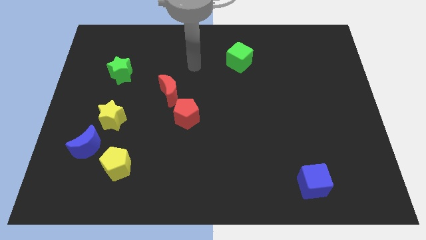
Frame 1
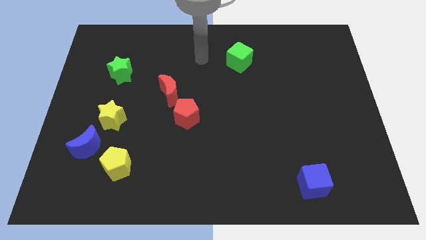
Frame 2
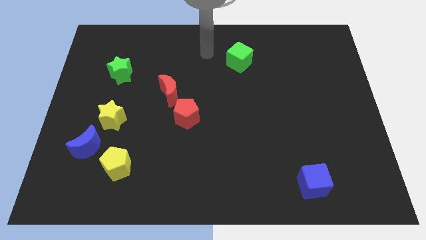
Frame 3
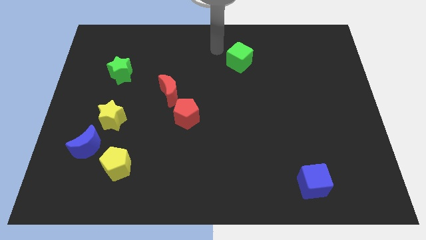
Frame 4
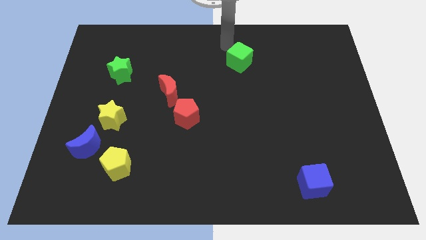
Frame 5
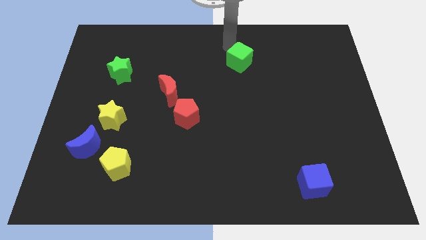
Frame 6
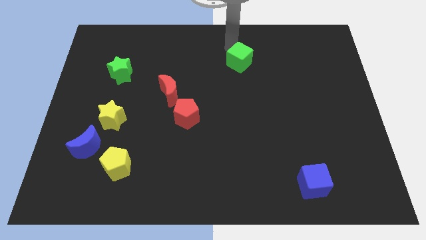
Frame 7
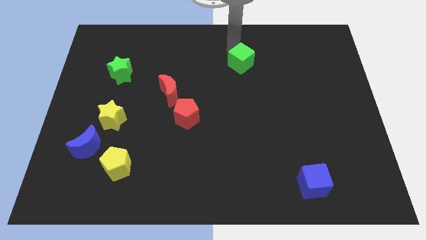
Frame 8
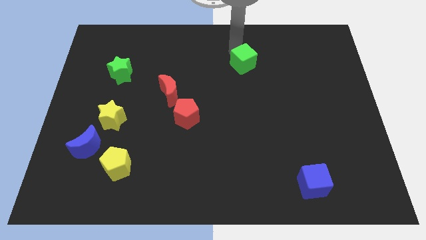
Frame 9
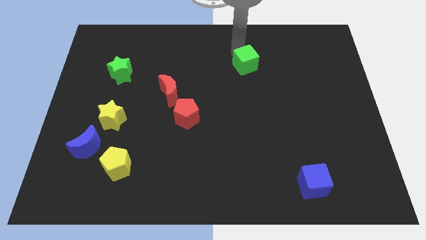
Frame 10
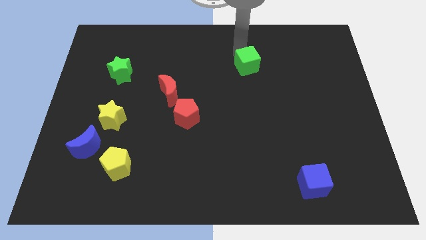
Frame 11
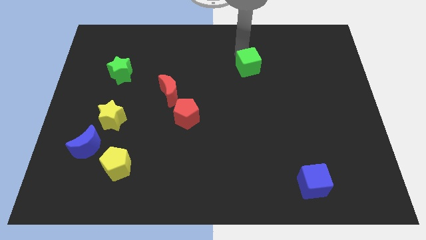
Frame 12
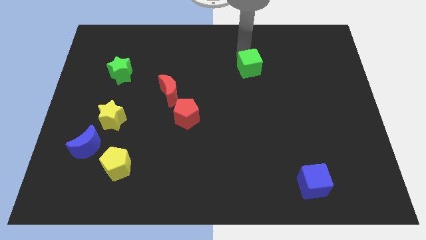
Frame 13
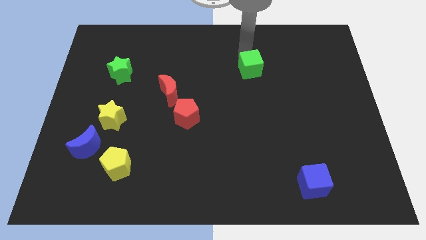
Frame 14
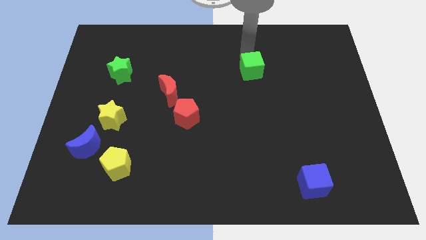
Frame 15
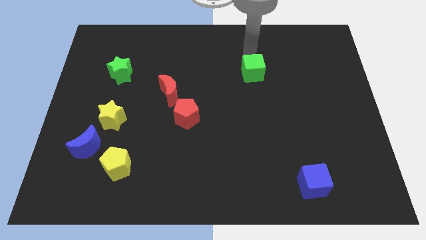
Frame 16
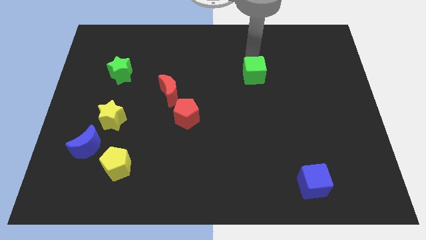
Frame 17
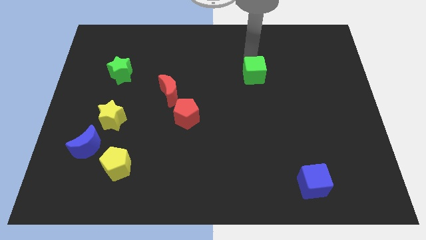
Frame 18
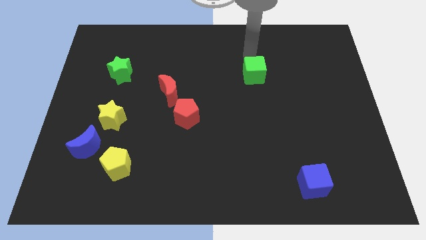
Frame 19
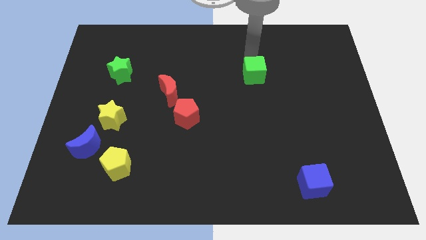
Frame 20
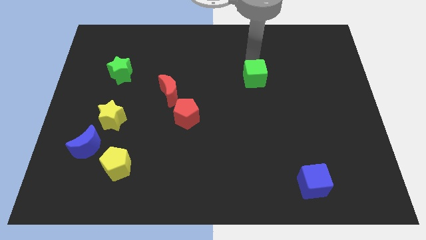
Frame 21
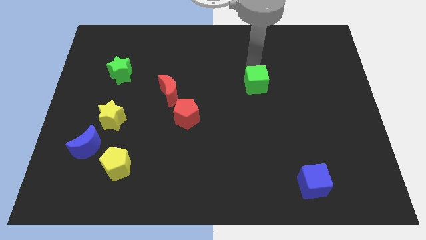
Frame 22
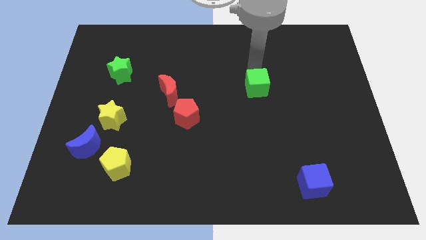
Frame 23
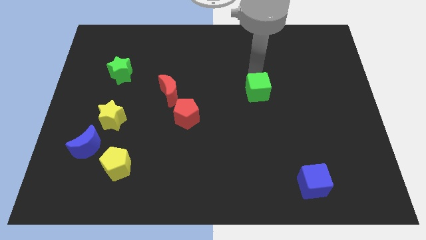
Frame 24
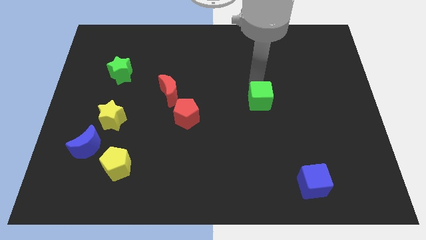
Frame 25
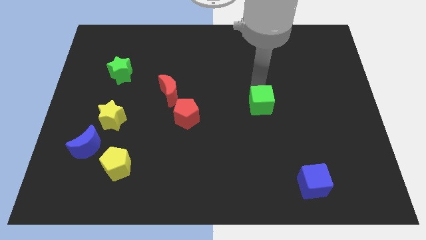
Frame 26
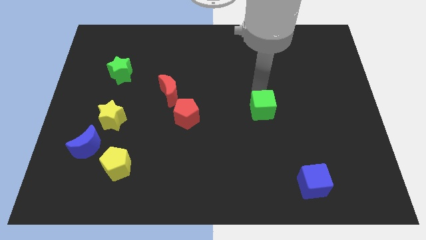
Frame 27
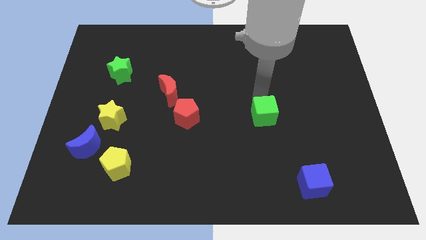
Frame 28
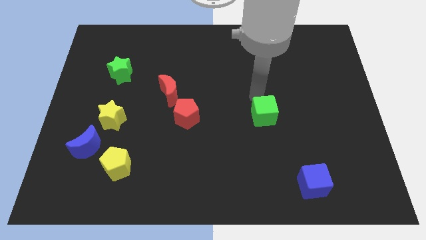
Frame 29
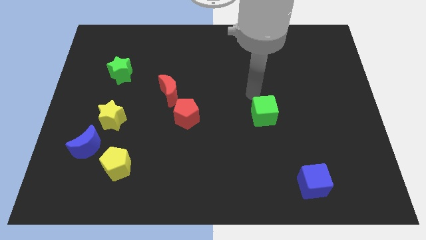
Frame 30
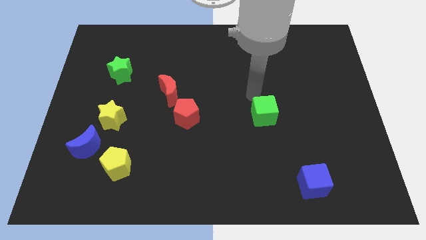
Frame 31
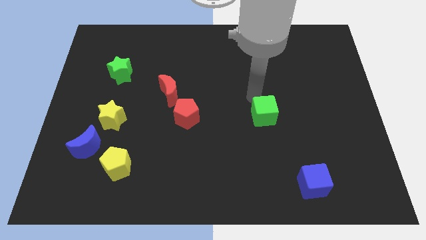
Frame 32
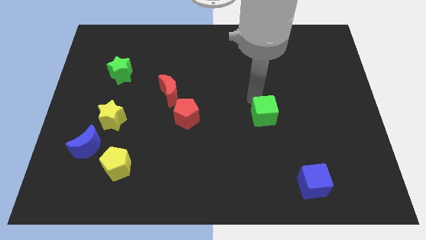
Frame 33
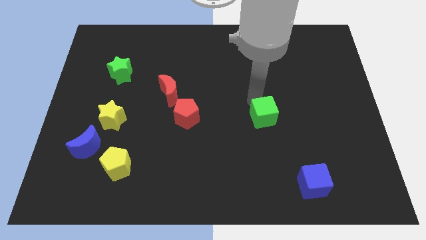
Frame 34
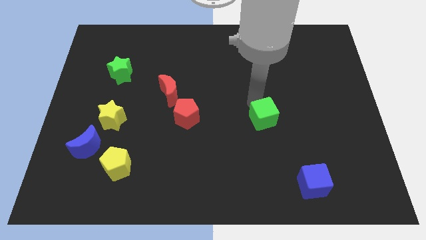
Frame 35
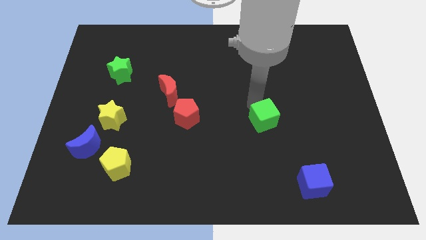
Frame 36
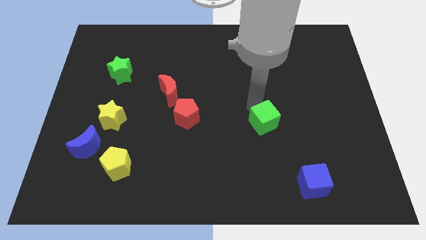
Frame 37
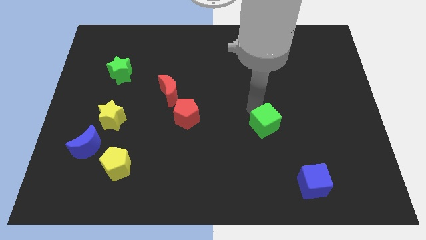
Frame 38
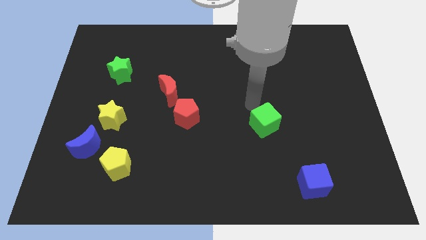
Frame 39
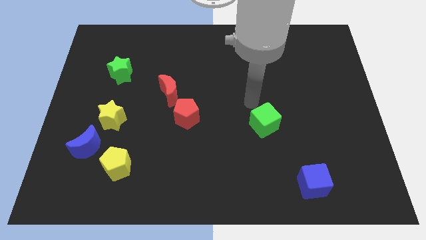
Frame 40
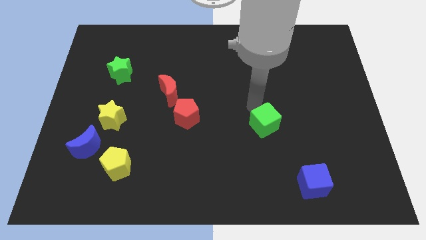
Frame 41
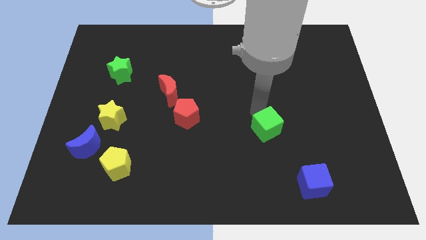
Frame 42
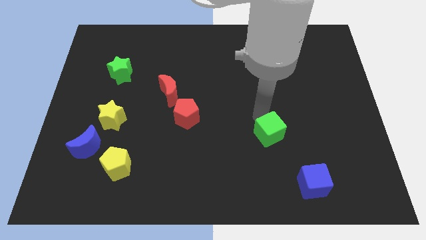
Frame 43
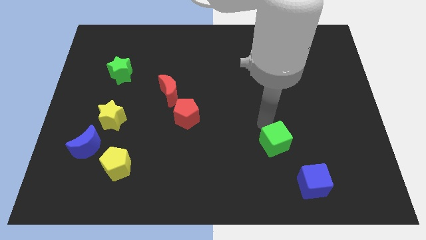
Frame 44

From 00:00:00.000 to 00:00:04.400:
put the green cube diagonally up and to the left of the blue cube

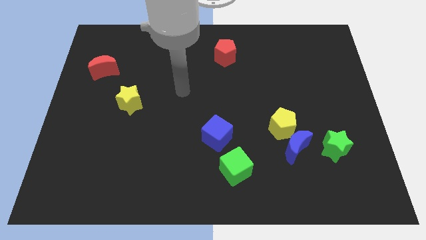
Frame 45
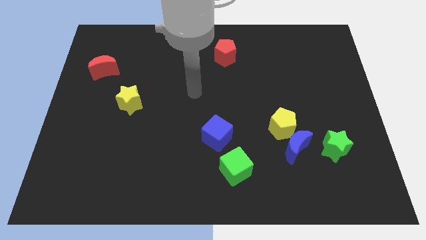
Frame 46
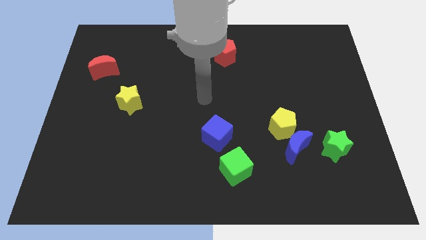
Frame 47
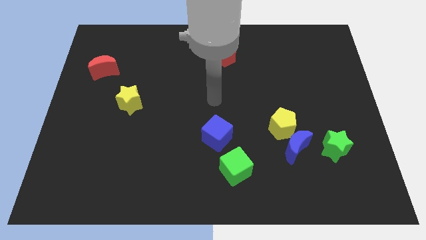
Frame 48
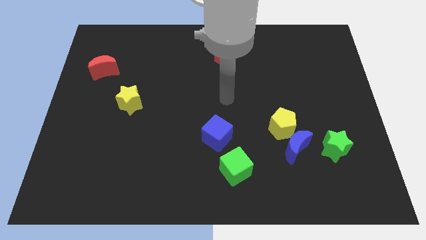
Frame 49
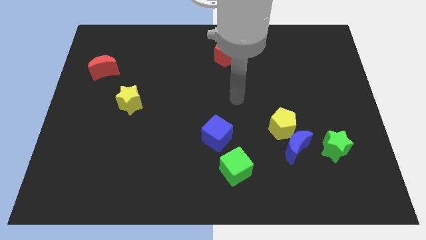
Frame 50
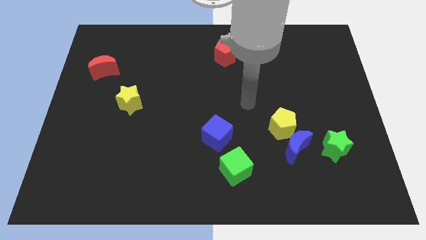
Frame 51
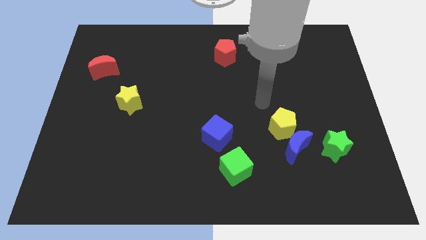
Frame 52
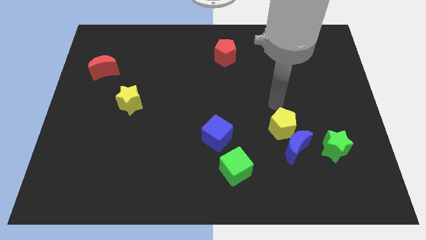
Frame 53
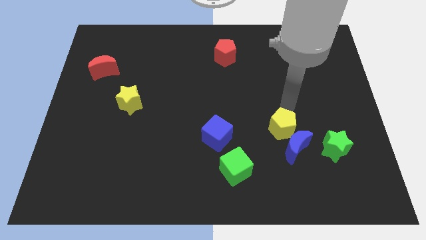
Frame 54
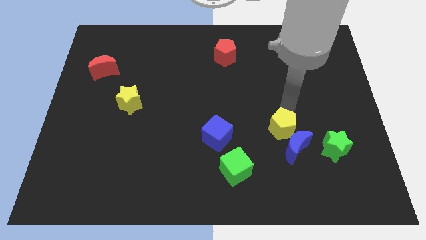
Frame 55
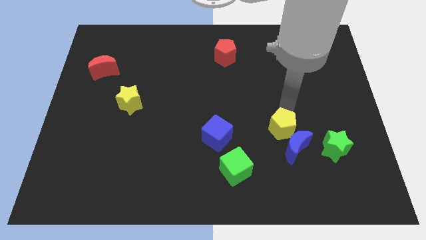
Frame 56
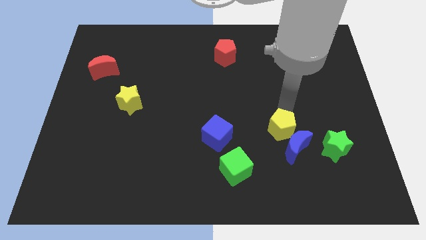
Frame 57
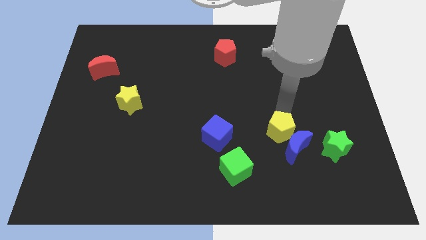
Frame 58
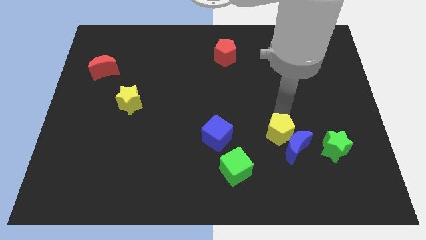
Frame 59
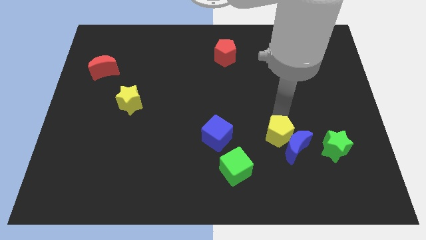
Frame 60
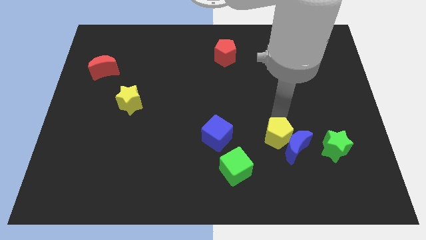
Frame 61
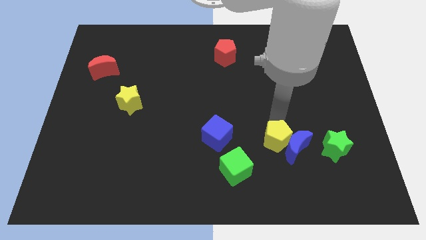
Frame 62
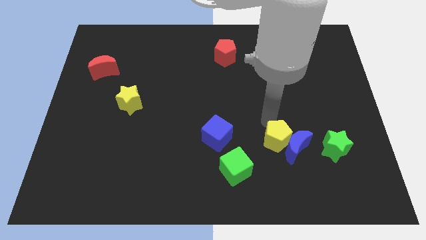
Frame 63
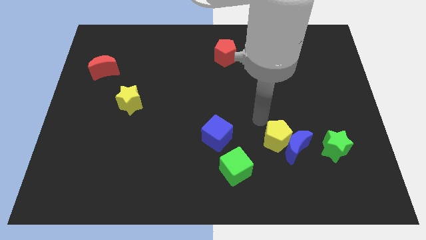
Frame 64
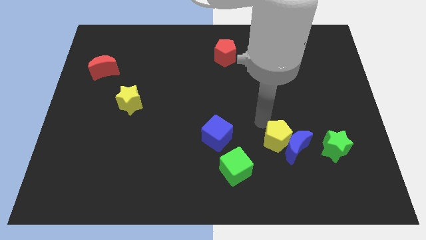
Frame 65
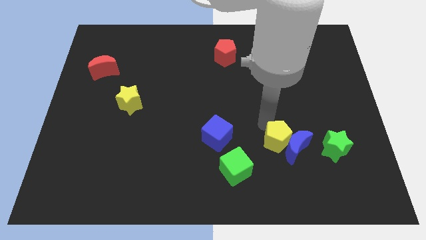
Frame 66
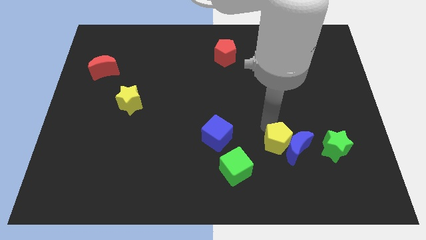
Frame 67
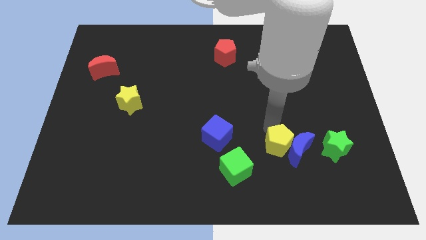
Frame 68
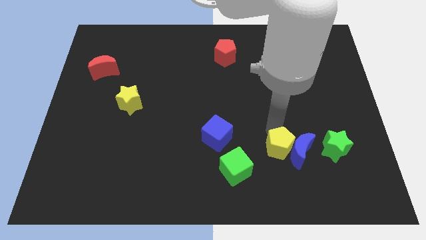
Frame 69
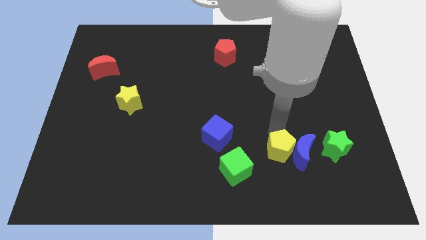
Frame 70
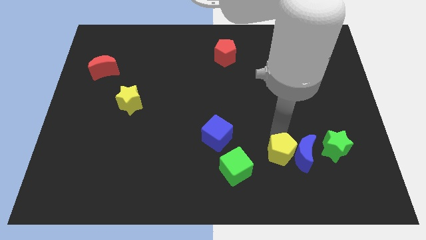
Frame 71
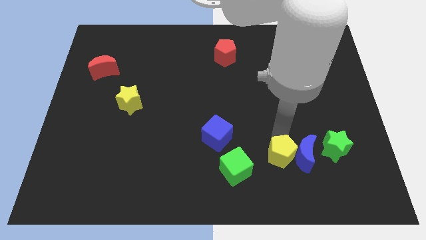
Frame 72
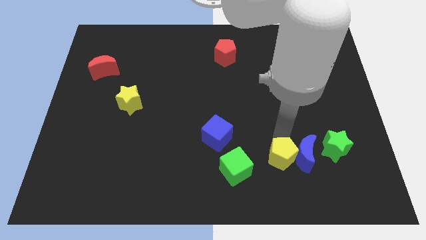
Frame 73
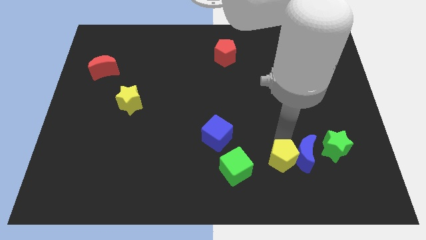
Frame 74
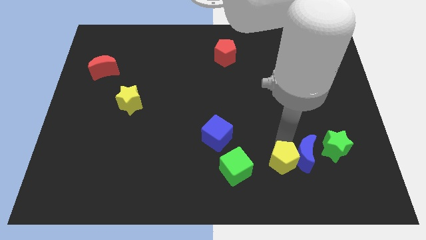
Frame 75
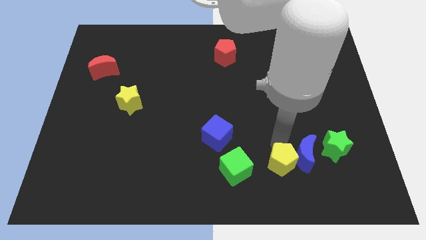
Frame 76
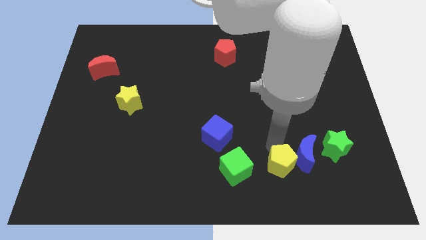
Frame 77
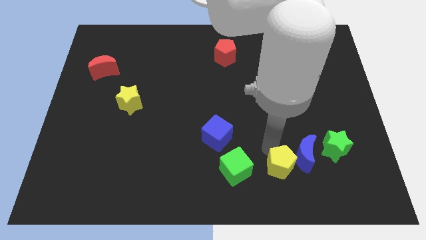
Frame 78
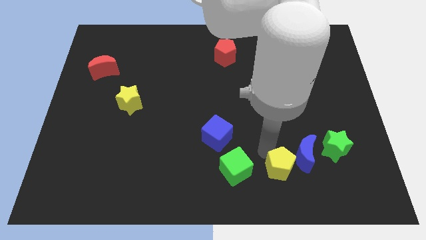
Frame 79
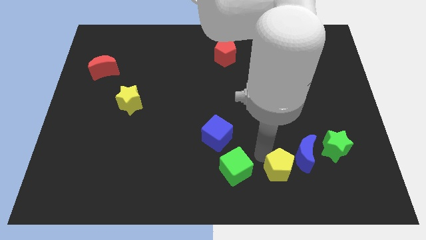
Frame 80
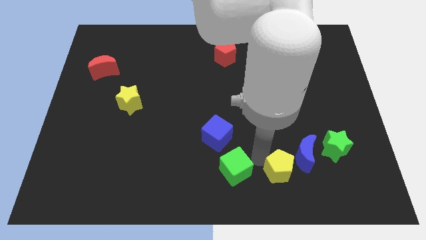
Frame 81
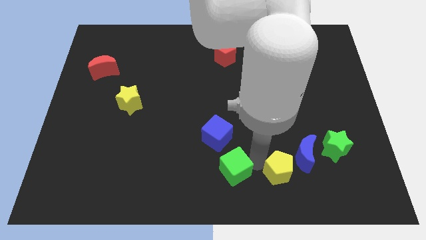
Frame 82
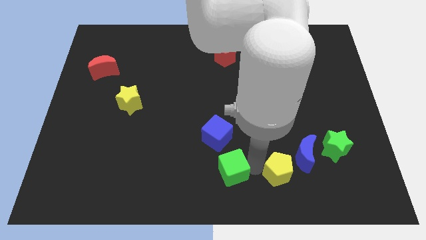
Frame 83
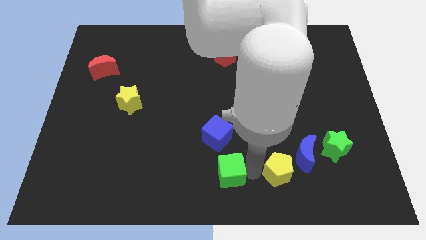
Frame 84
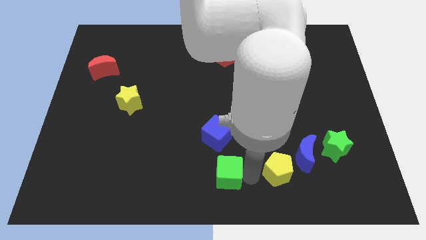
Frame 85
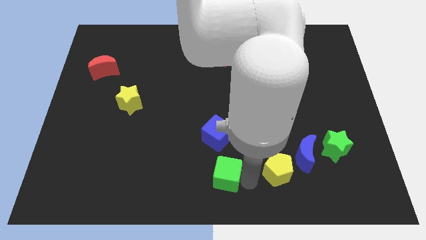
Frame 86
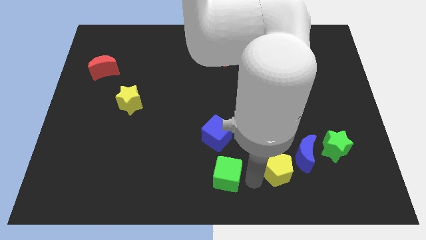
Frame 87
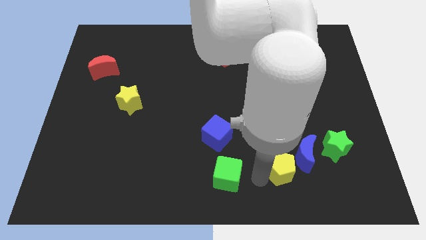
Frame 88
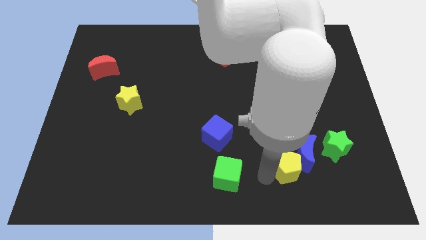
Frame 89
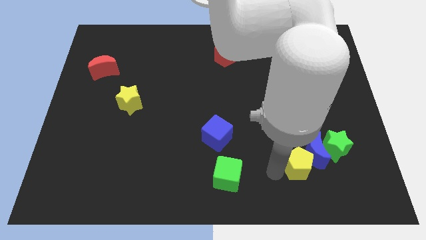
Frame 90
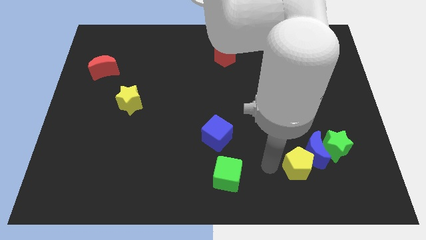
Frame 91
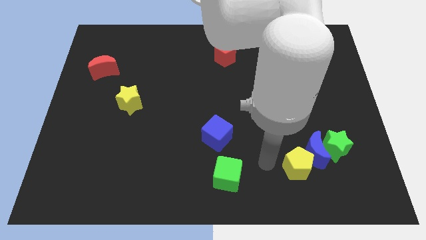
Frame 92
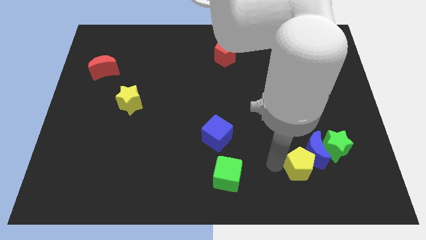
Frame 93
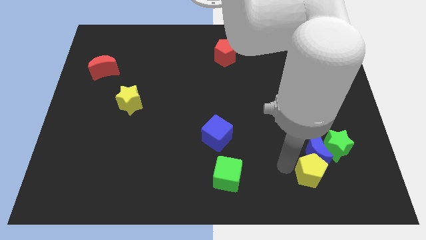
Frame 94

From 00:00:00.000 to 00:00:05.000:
move the yellow pentagon to the bottom right of the blue moon
